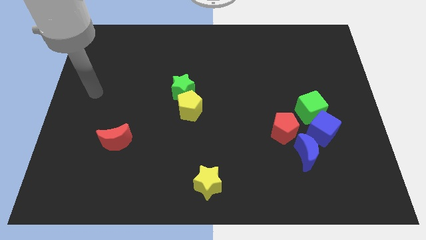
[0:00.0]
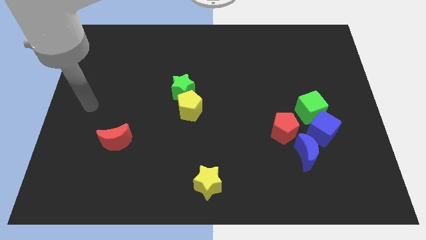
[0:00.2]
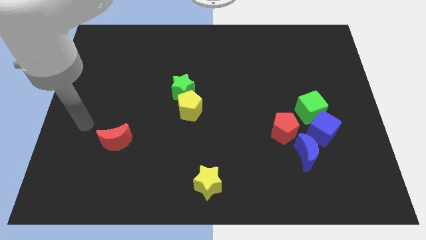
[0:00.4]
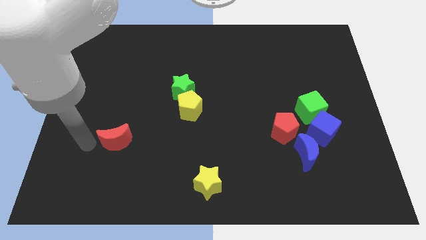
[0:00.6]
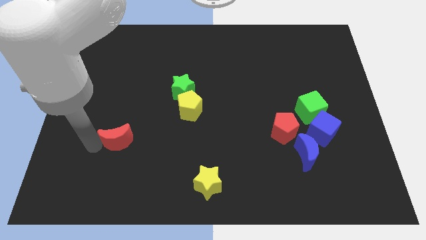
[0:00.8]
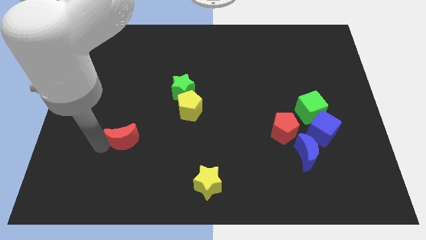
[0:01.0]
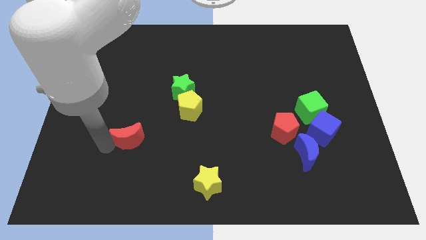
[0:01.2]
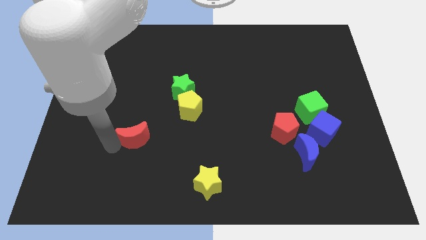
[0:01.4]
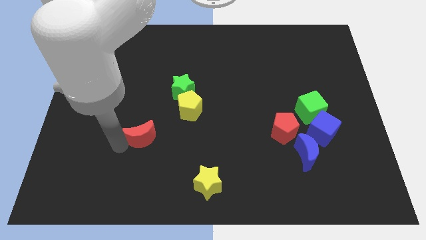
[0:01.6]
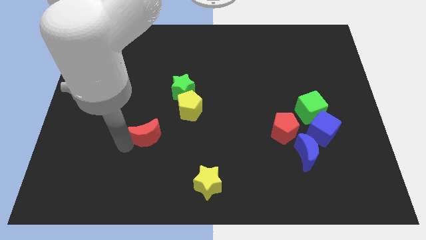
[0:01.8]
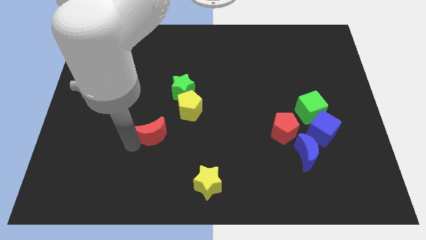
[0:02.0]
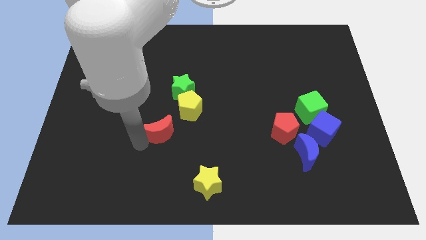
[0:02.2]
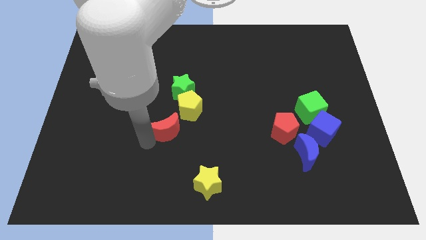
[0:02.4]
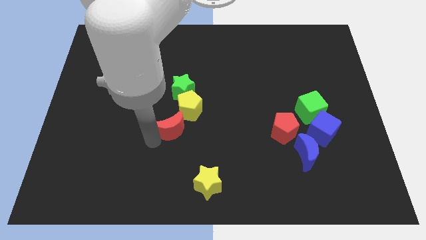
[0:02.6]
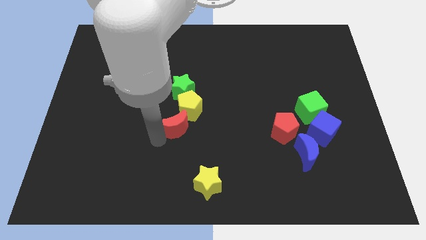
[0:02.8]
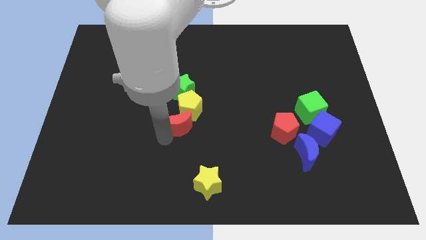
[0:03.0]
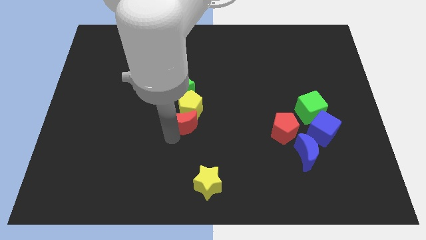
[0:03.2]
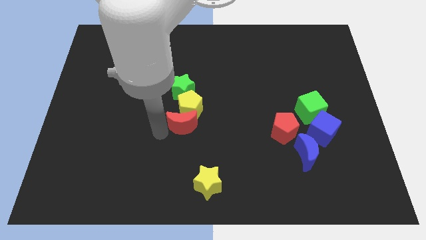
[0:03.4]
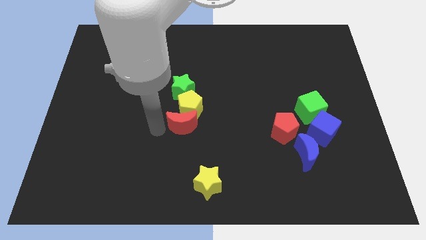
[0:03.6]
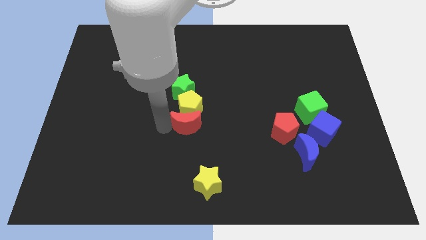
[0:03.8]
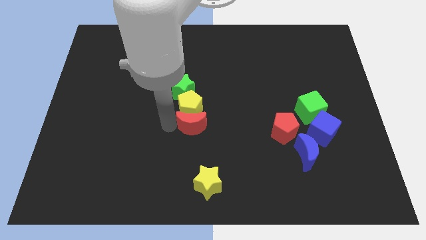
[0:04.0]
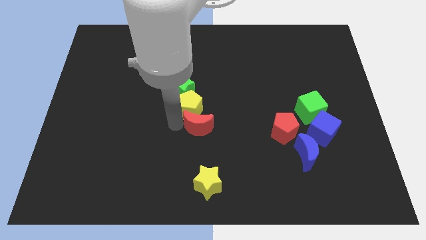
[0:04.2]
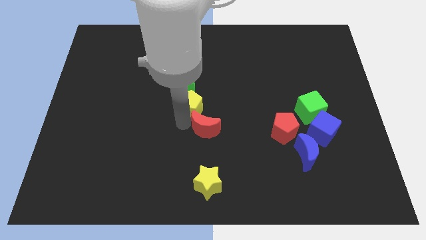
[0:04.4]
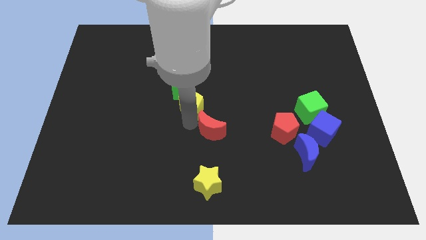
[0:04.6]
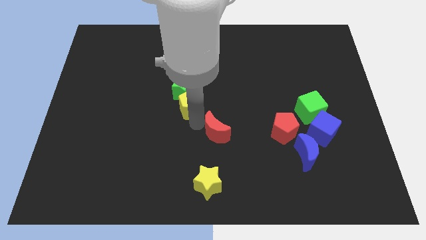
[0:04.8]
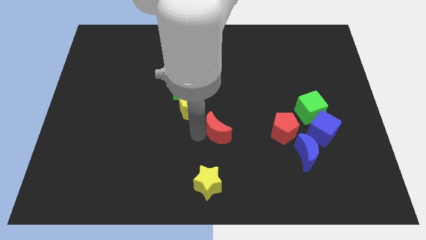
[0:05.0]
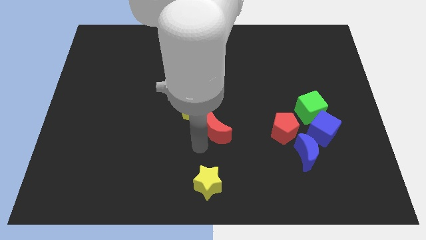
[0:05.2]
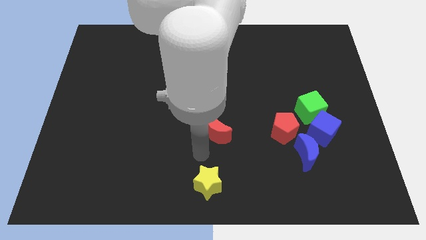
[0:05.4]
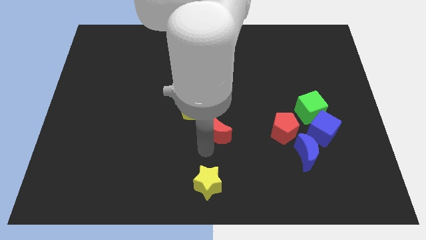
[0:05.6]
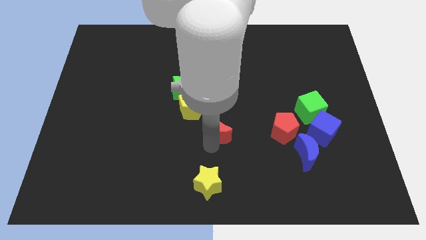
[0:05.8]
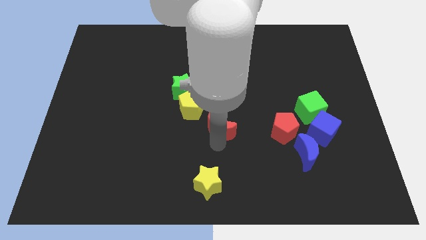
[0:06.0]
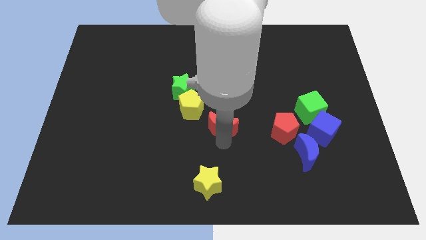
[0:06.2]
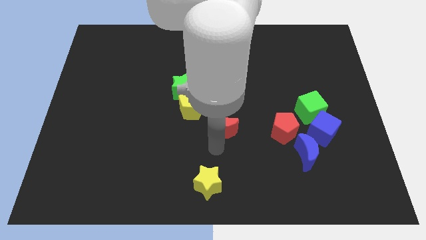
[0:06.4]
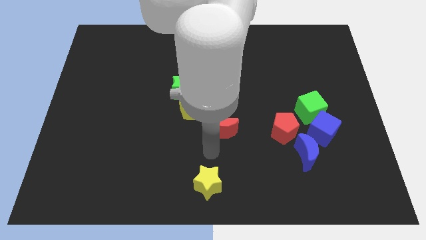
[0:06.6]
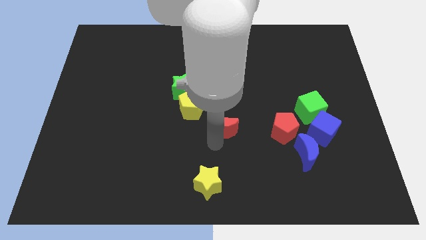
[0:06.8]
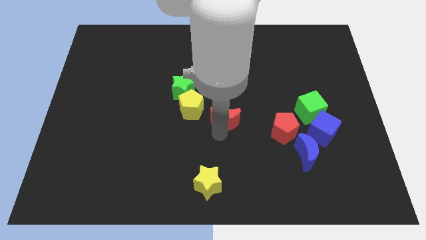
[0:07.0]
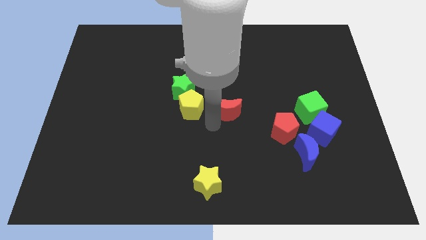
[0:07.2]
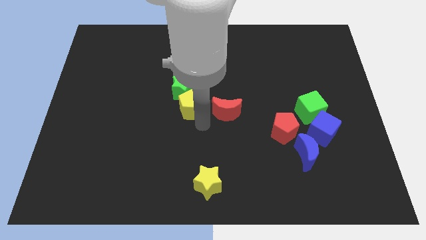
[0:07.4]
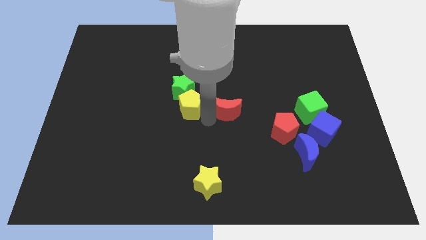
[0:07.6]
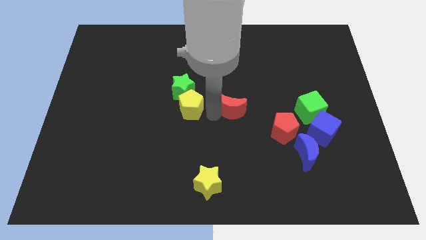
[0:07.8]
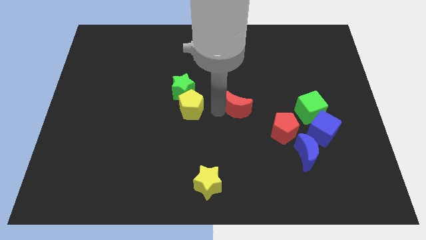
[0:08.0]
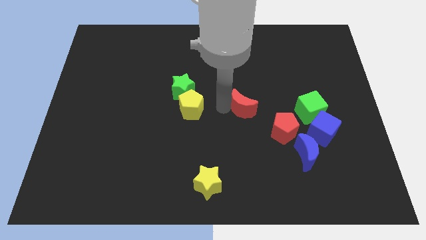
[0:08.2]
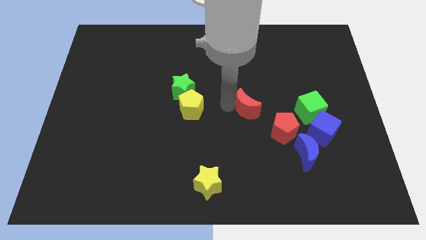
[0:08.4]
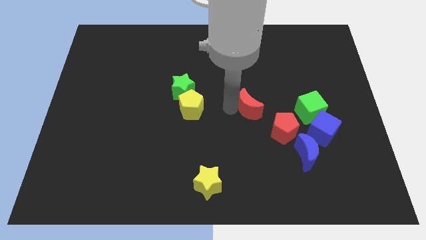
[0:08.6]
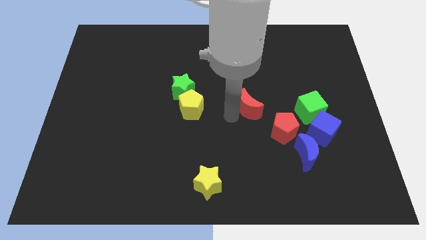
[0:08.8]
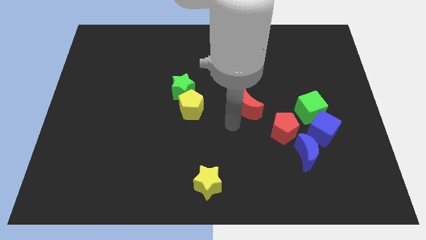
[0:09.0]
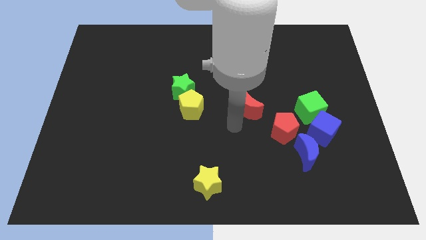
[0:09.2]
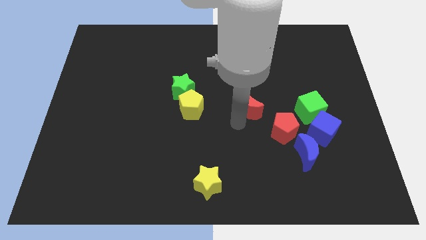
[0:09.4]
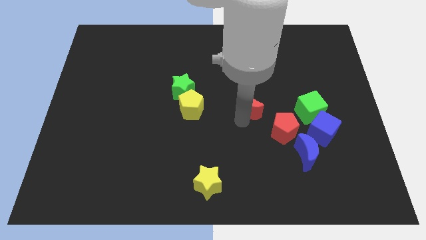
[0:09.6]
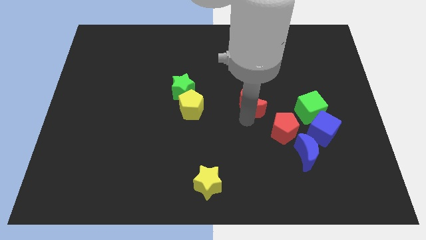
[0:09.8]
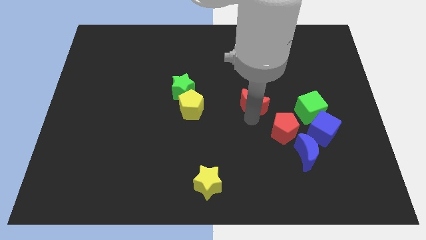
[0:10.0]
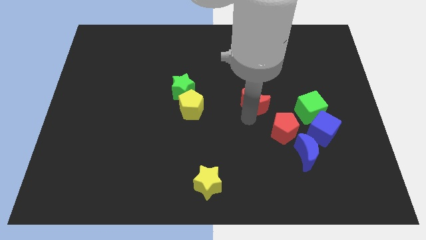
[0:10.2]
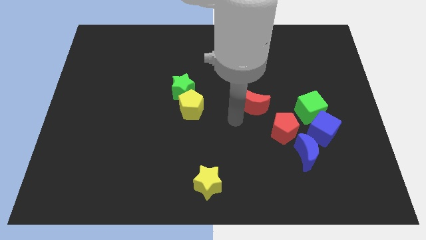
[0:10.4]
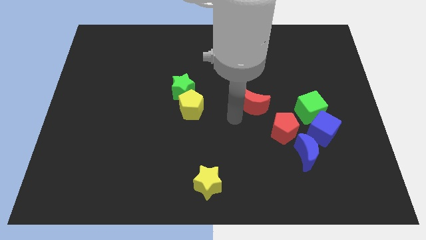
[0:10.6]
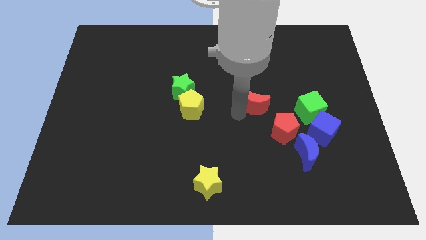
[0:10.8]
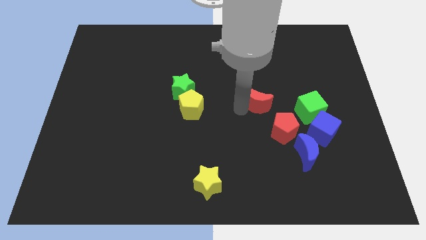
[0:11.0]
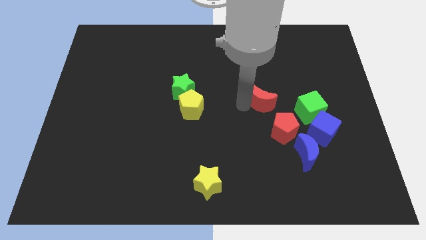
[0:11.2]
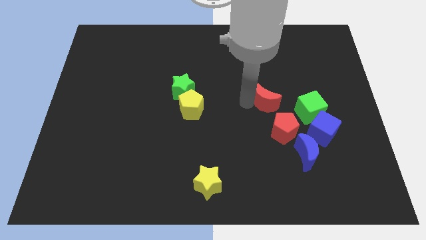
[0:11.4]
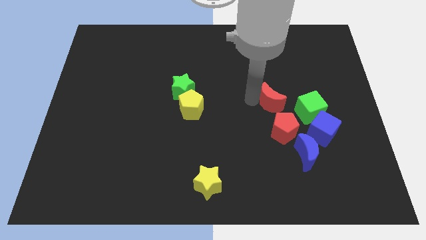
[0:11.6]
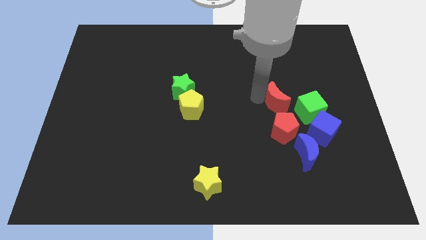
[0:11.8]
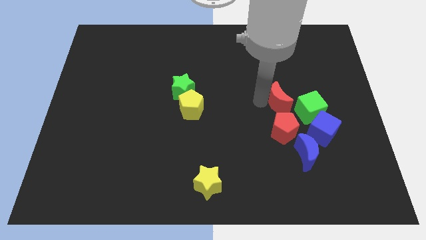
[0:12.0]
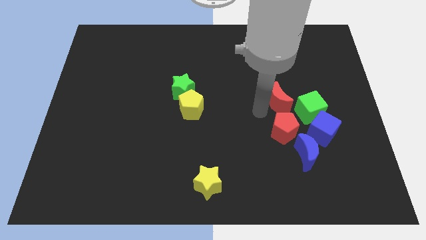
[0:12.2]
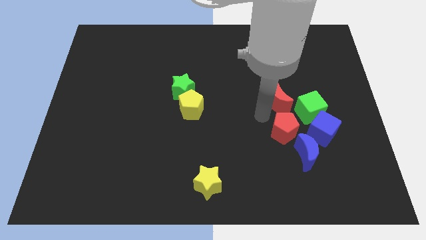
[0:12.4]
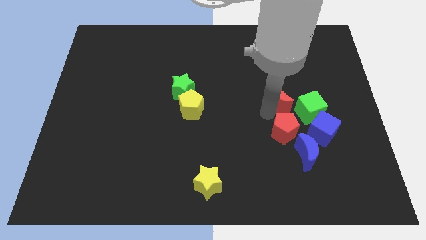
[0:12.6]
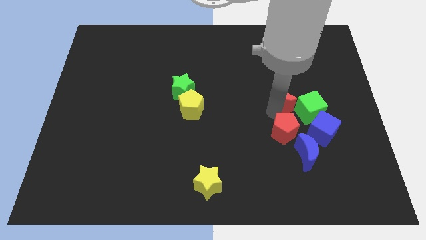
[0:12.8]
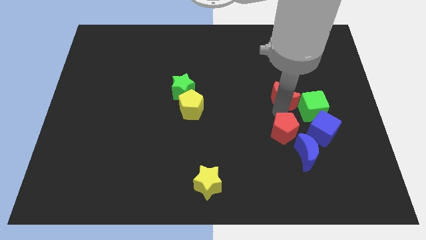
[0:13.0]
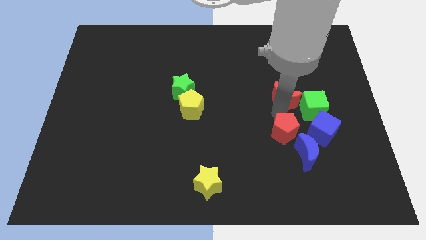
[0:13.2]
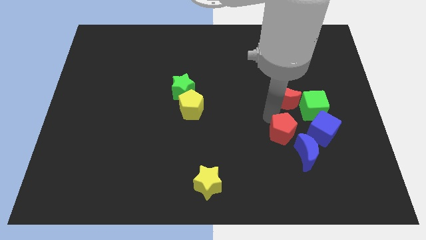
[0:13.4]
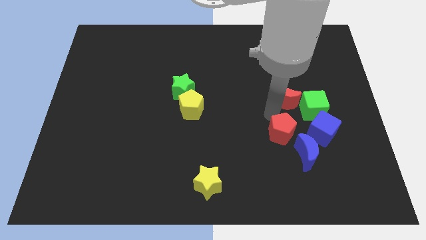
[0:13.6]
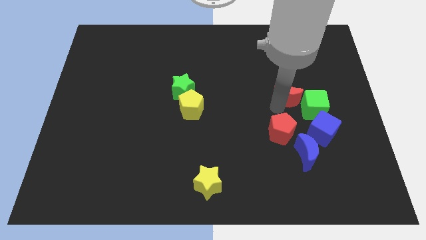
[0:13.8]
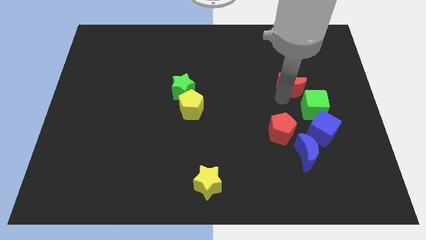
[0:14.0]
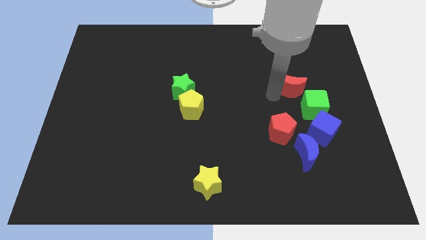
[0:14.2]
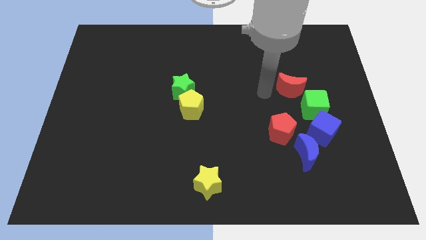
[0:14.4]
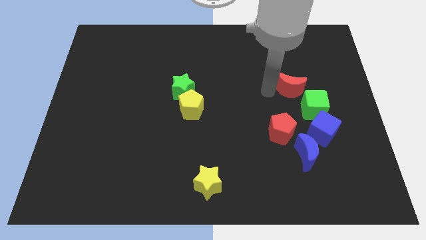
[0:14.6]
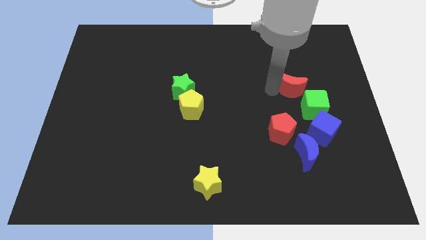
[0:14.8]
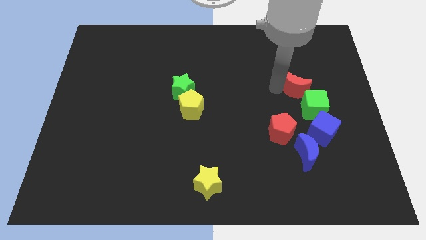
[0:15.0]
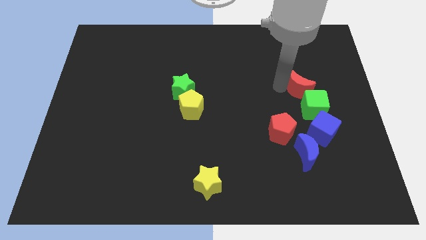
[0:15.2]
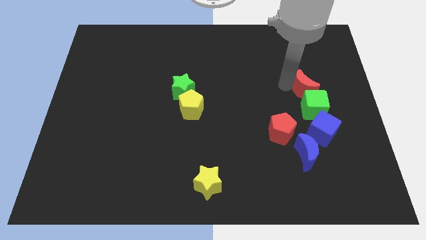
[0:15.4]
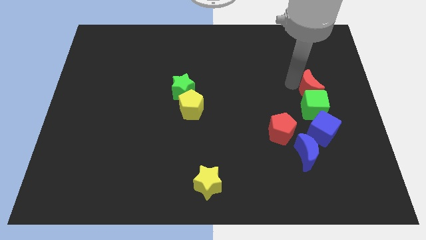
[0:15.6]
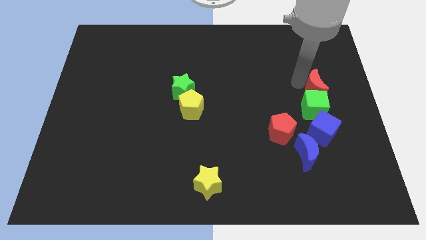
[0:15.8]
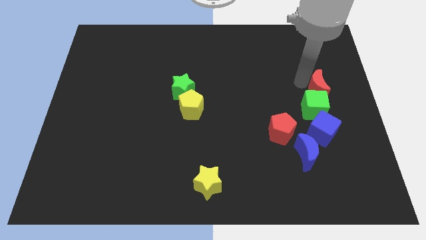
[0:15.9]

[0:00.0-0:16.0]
slide the red moon to the right side of the board
